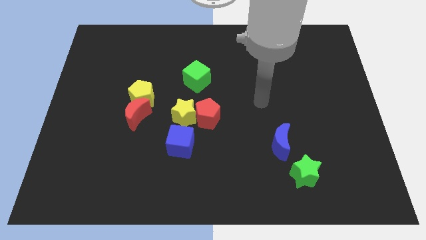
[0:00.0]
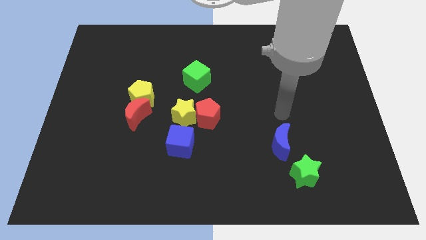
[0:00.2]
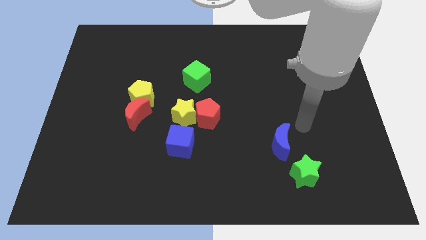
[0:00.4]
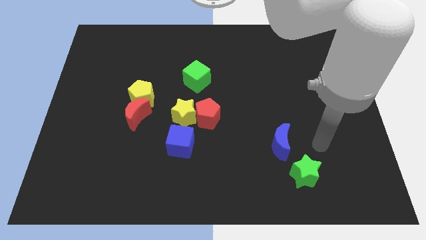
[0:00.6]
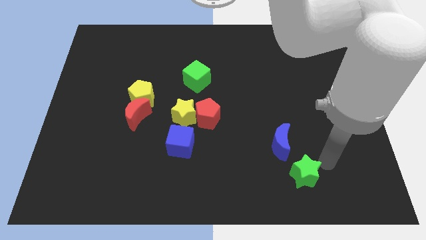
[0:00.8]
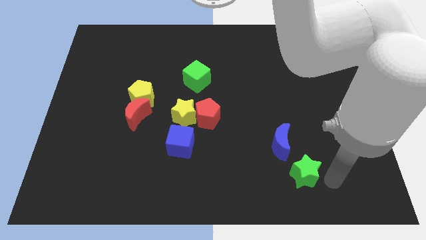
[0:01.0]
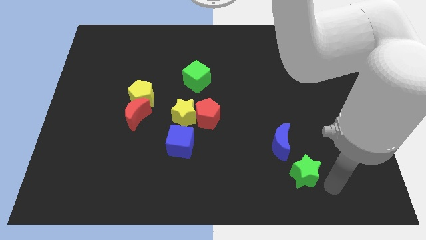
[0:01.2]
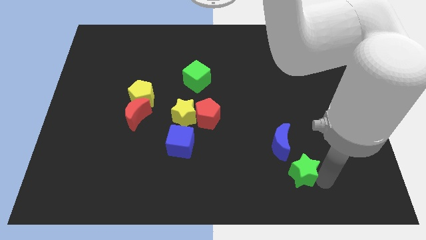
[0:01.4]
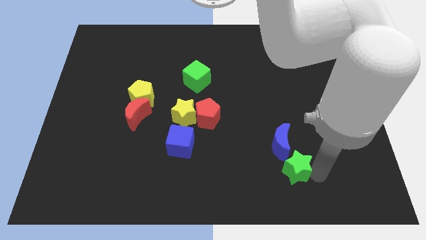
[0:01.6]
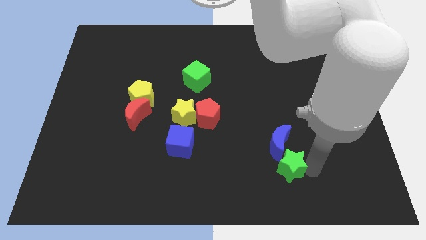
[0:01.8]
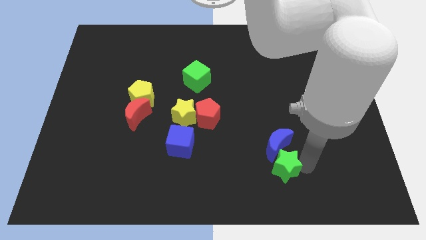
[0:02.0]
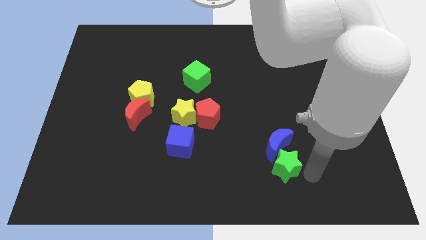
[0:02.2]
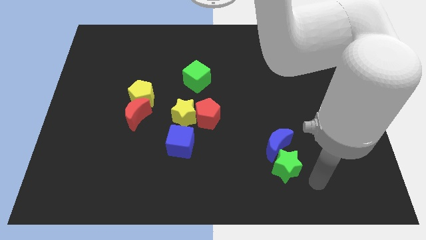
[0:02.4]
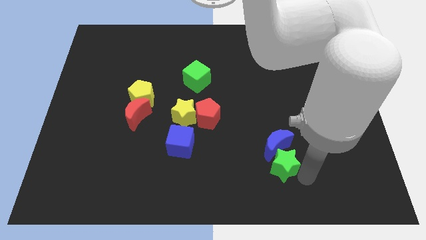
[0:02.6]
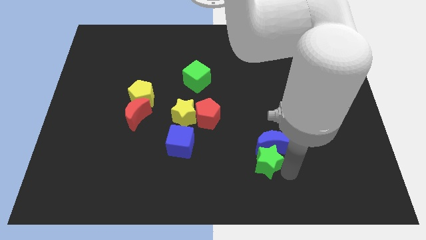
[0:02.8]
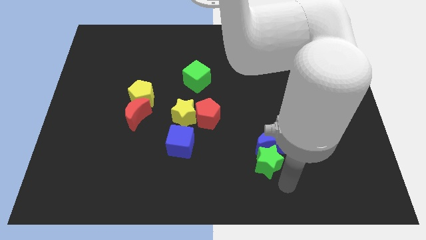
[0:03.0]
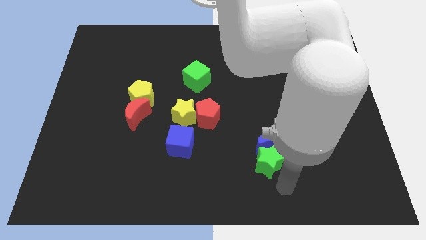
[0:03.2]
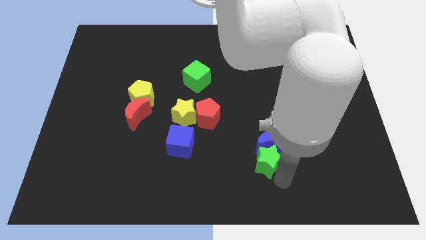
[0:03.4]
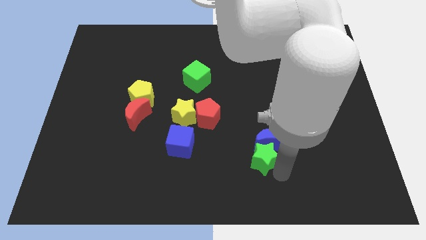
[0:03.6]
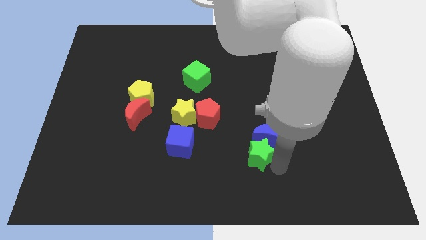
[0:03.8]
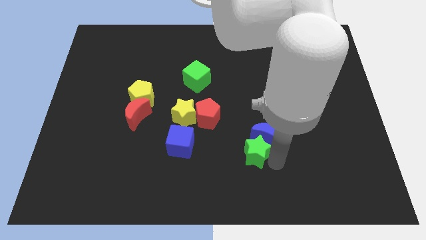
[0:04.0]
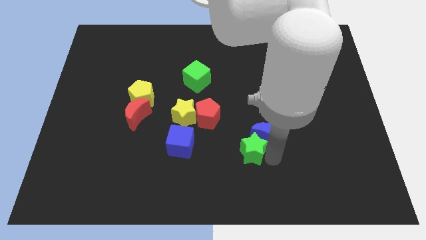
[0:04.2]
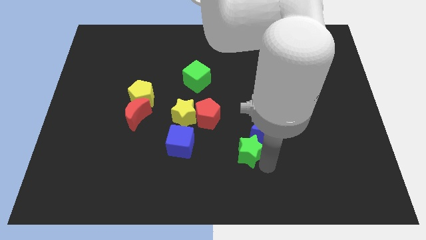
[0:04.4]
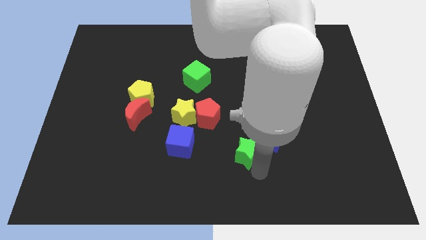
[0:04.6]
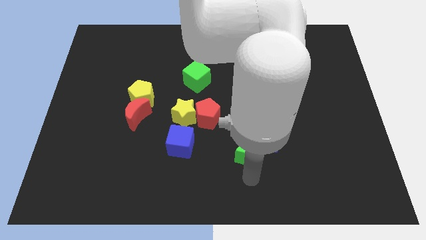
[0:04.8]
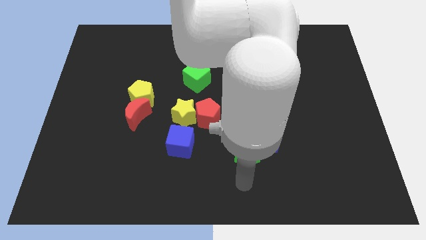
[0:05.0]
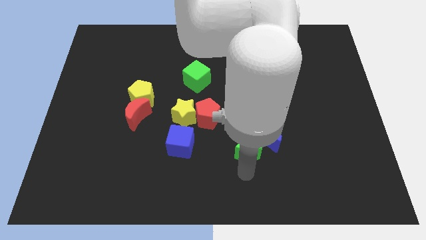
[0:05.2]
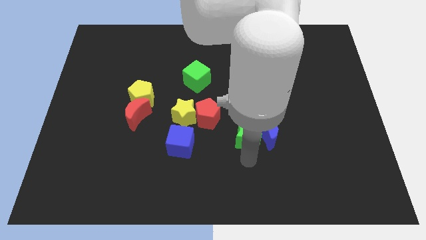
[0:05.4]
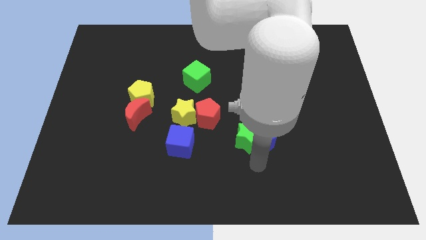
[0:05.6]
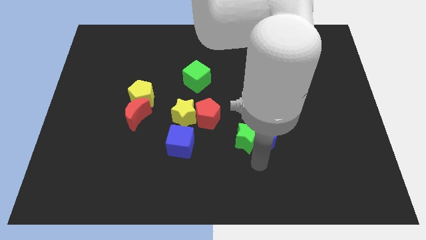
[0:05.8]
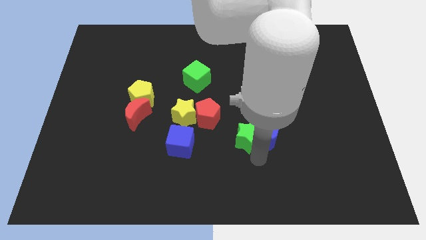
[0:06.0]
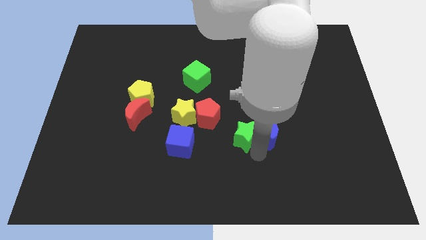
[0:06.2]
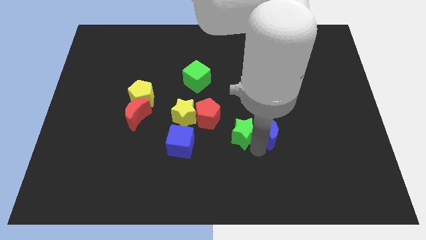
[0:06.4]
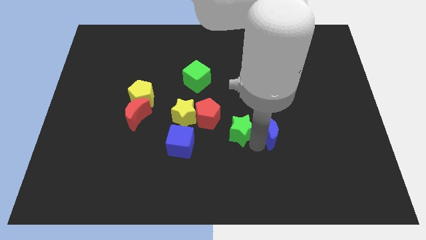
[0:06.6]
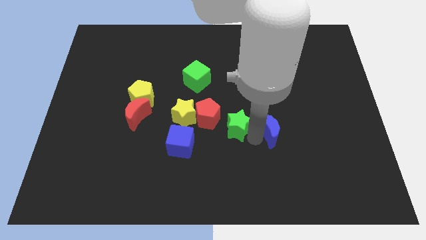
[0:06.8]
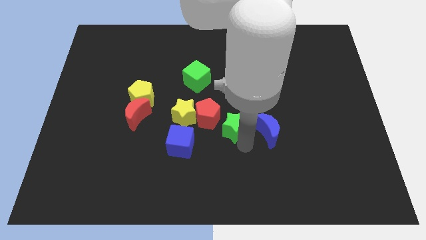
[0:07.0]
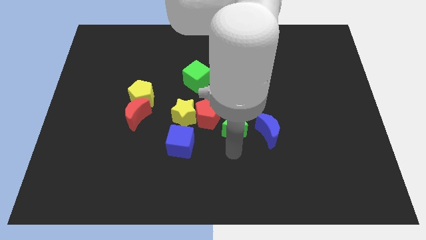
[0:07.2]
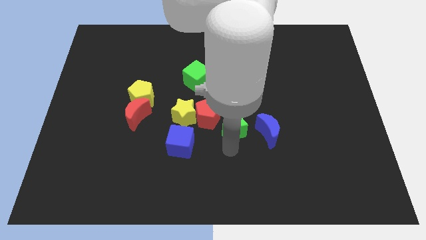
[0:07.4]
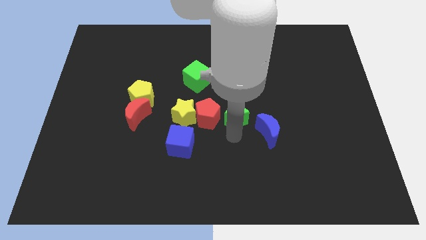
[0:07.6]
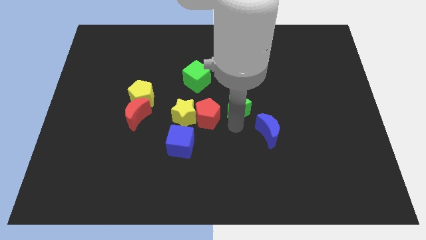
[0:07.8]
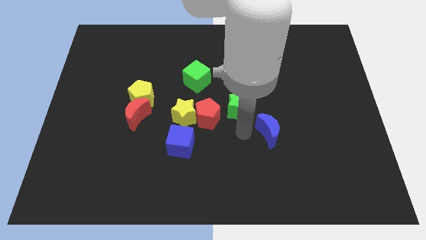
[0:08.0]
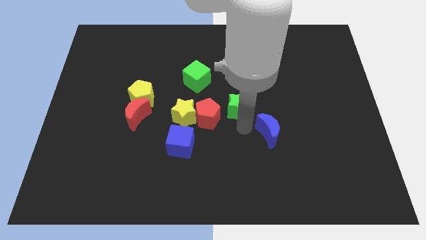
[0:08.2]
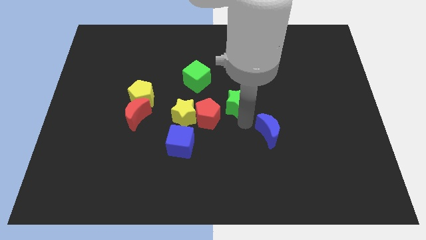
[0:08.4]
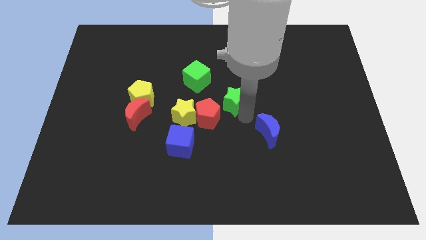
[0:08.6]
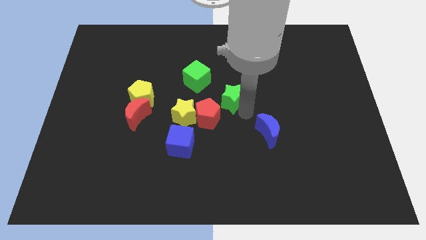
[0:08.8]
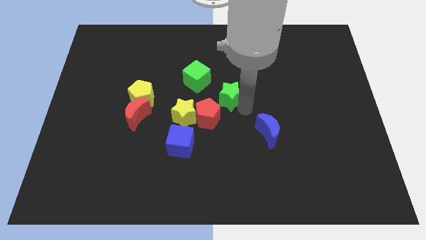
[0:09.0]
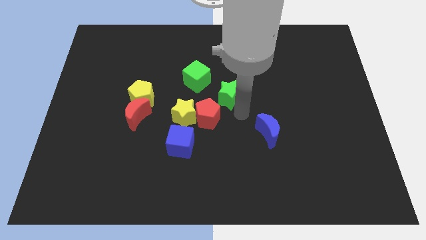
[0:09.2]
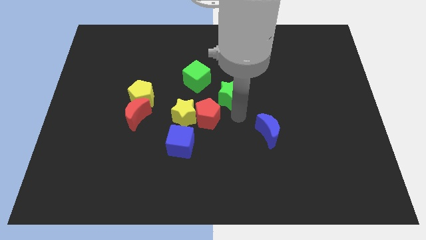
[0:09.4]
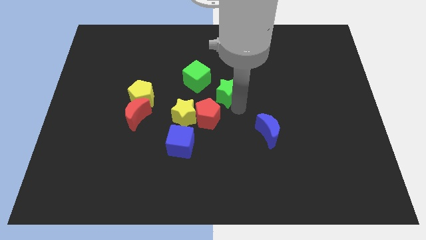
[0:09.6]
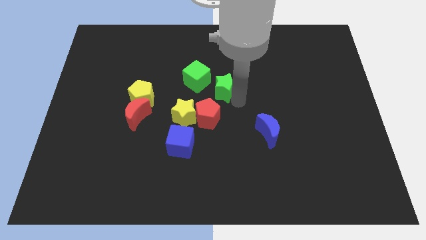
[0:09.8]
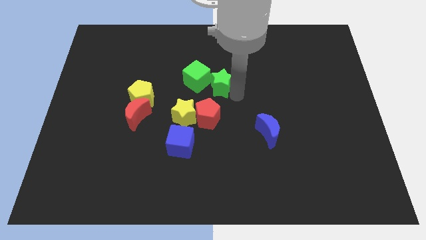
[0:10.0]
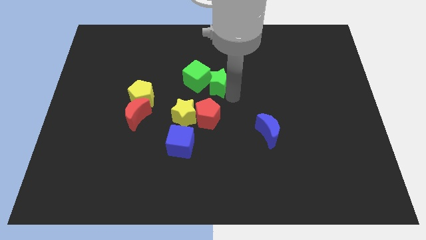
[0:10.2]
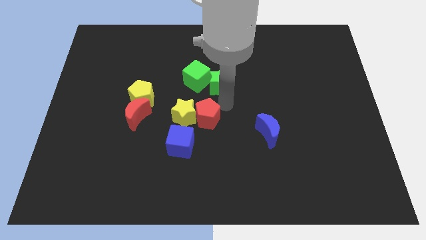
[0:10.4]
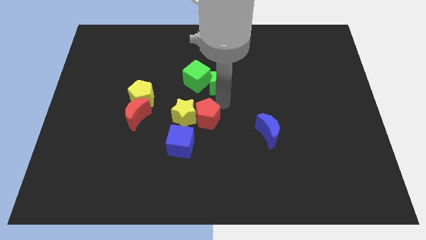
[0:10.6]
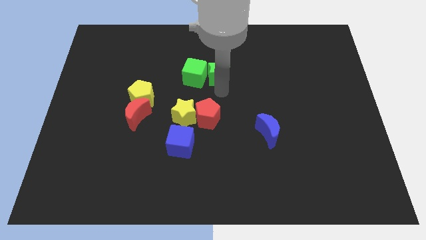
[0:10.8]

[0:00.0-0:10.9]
put the green star to the top right of the green cube

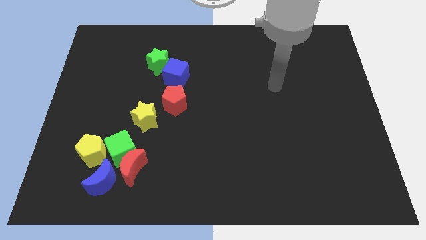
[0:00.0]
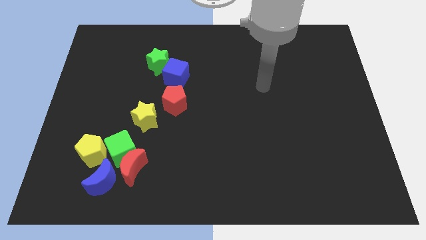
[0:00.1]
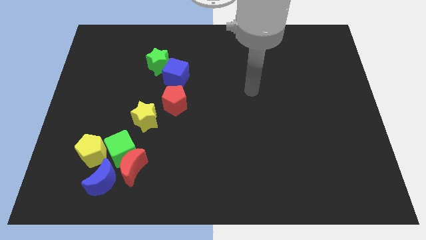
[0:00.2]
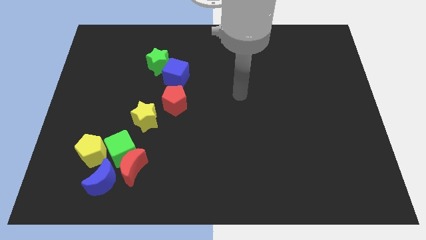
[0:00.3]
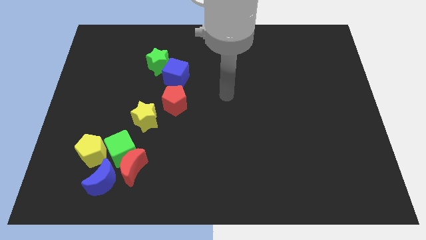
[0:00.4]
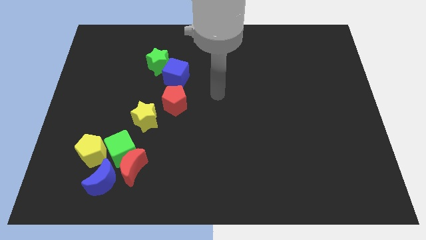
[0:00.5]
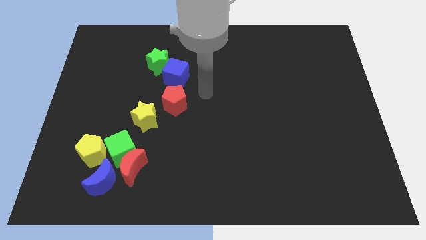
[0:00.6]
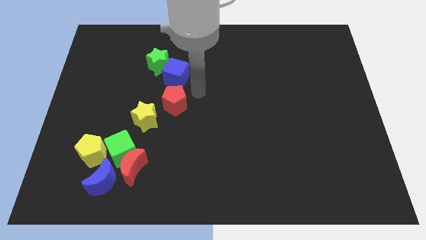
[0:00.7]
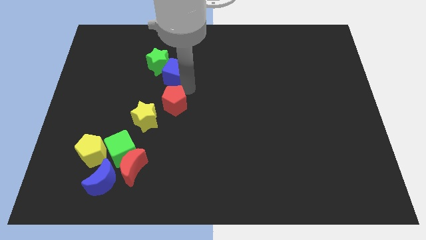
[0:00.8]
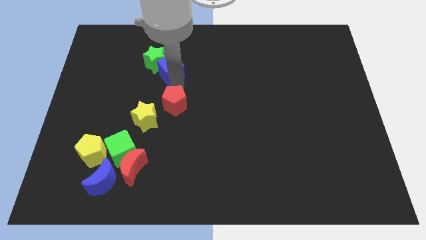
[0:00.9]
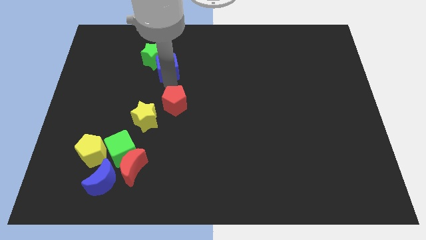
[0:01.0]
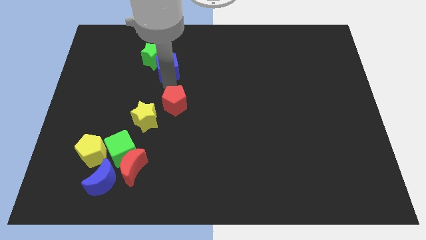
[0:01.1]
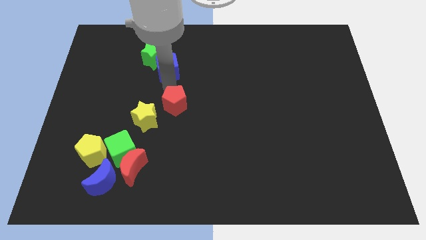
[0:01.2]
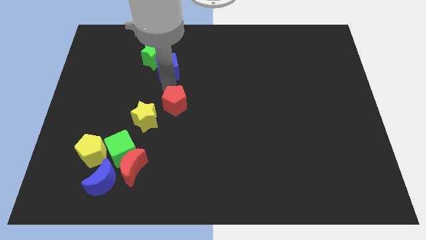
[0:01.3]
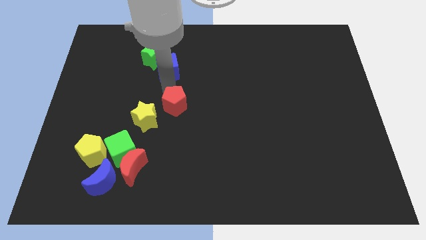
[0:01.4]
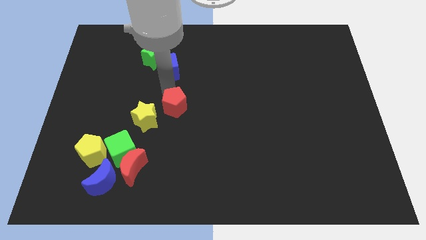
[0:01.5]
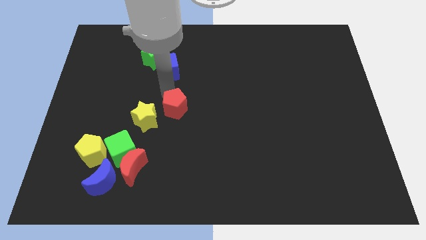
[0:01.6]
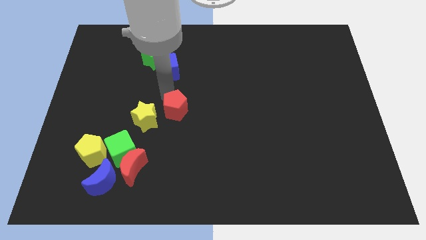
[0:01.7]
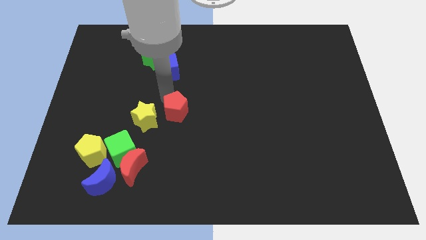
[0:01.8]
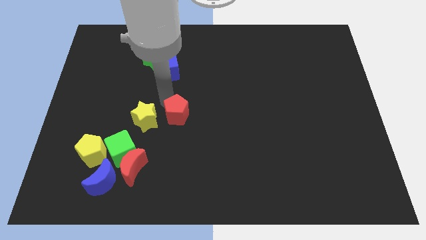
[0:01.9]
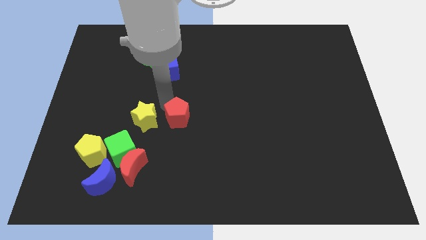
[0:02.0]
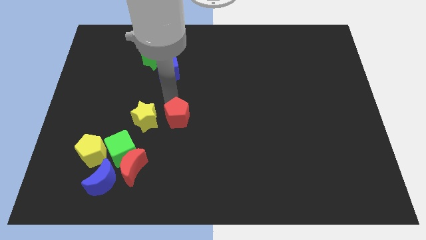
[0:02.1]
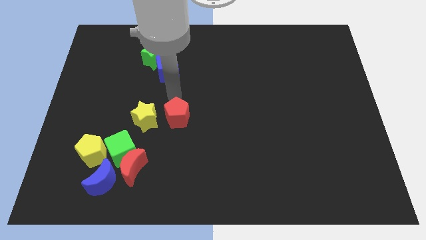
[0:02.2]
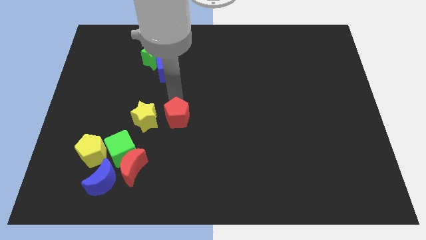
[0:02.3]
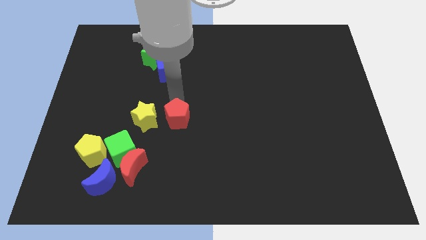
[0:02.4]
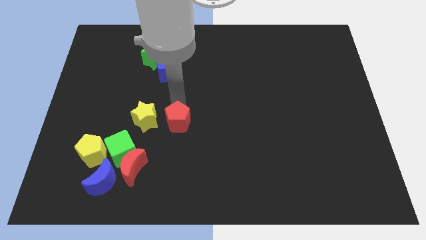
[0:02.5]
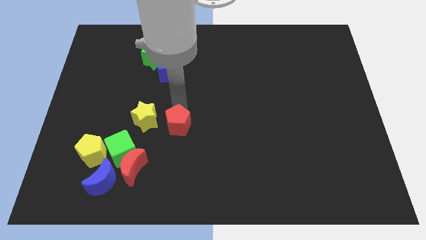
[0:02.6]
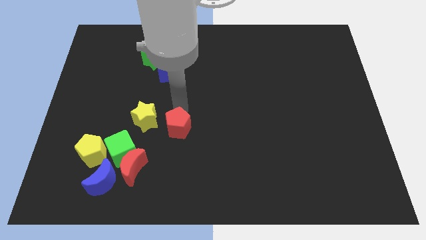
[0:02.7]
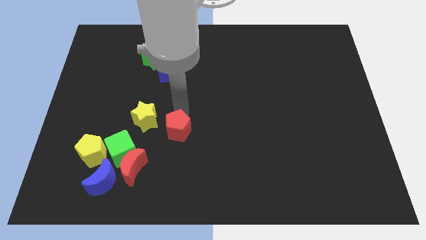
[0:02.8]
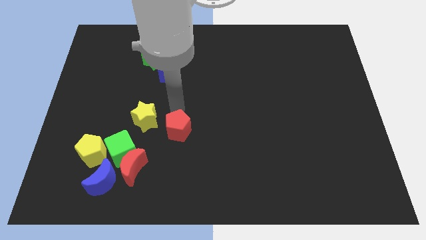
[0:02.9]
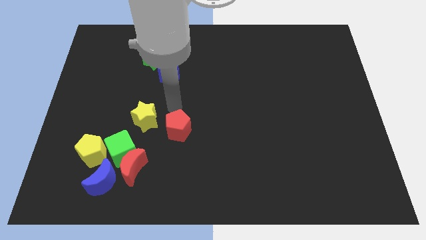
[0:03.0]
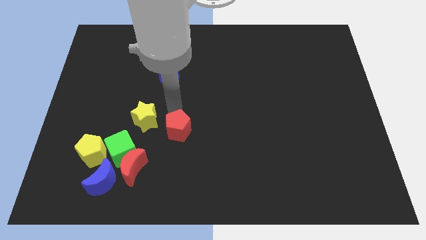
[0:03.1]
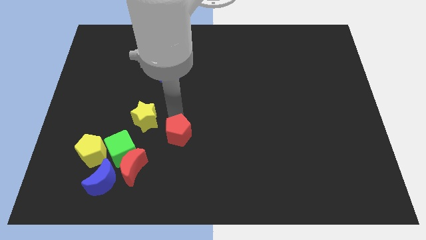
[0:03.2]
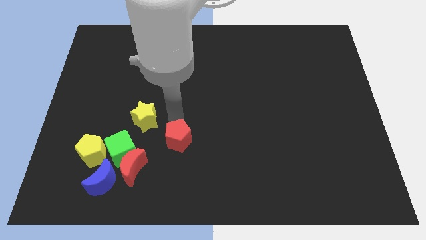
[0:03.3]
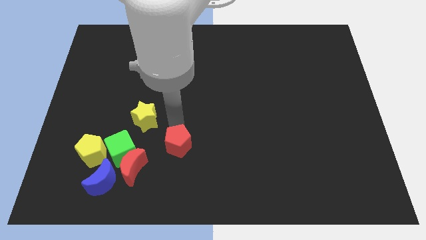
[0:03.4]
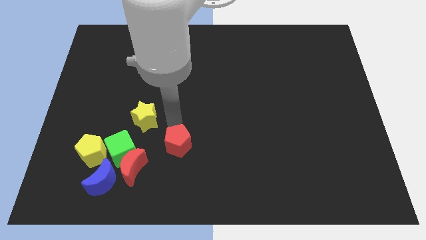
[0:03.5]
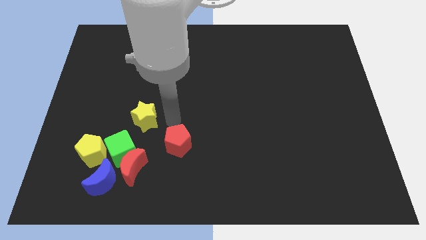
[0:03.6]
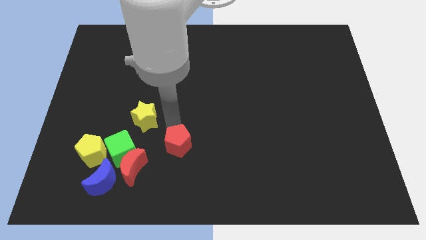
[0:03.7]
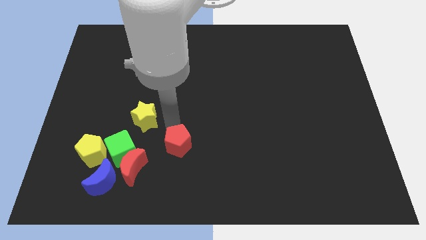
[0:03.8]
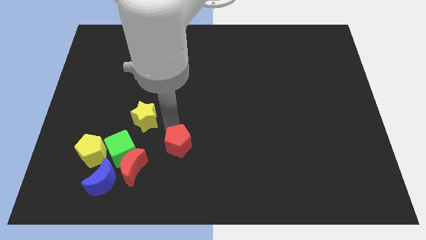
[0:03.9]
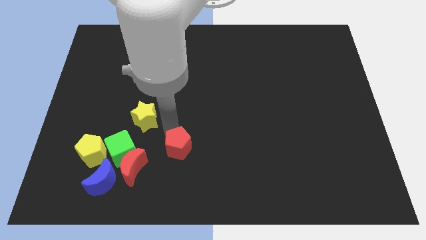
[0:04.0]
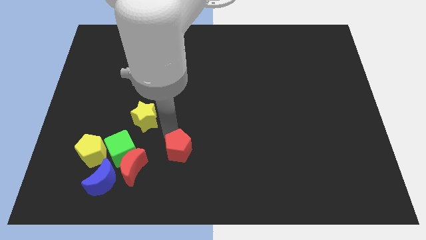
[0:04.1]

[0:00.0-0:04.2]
put the red pentagon to the right of the red moon
